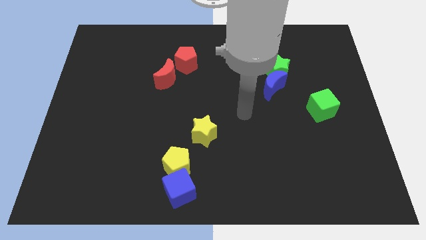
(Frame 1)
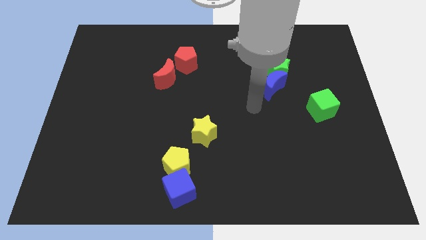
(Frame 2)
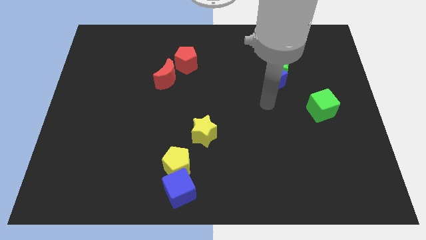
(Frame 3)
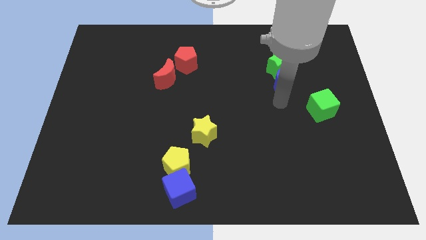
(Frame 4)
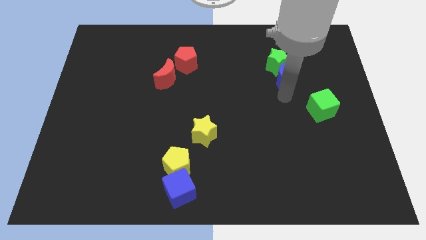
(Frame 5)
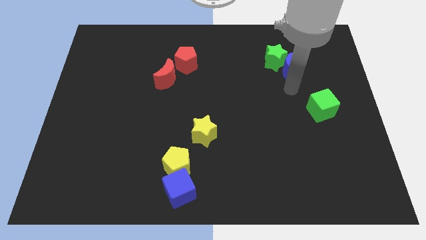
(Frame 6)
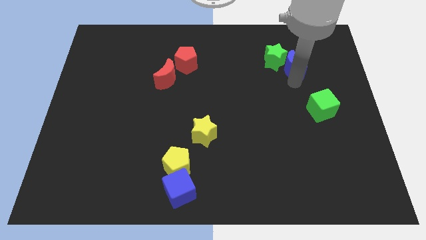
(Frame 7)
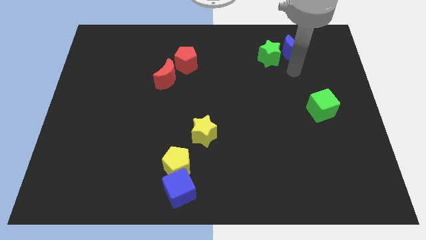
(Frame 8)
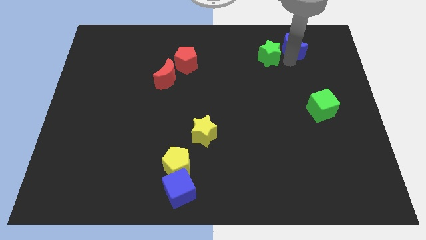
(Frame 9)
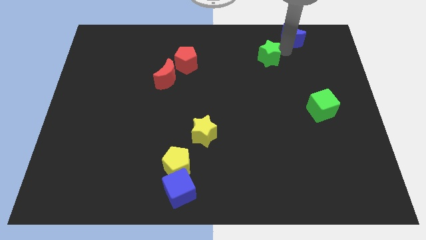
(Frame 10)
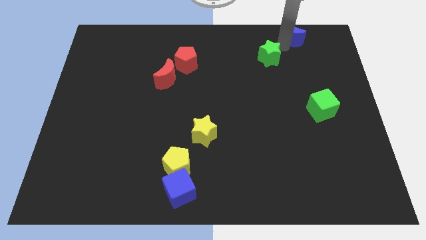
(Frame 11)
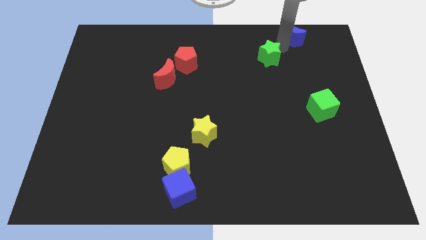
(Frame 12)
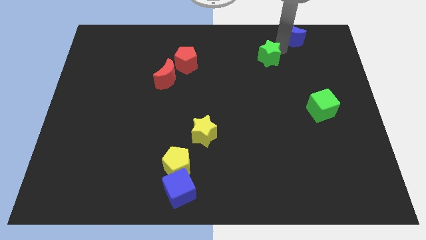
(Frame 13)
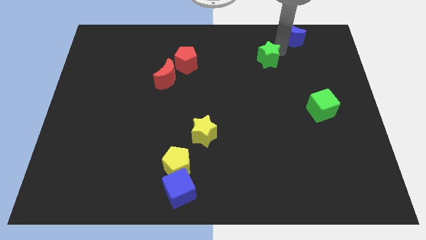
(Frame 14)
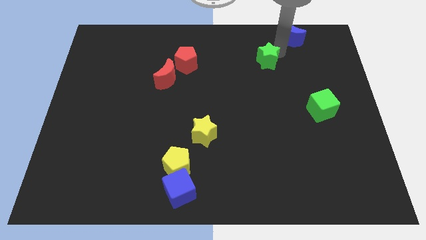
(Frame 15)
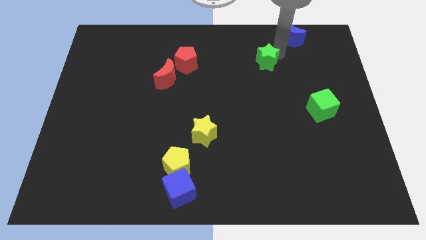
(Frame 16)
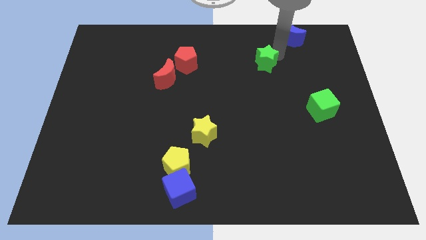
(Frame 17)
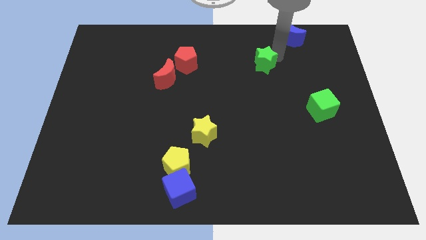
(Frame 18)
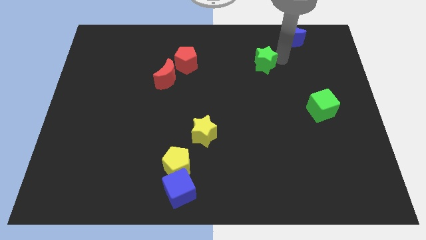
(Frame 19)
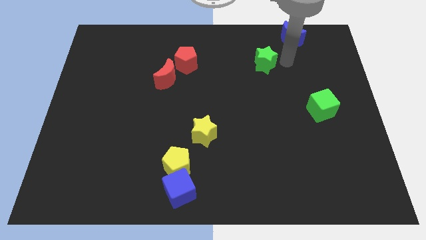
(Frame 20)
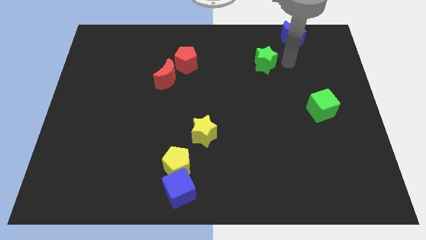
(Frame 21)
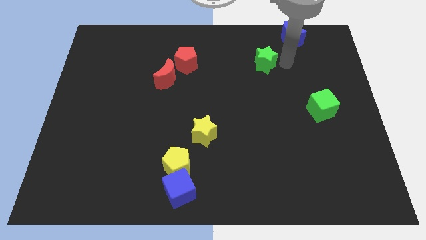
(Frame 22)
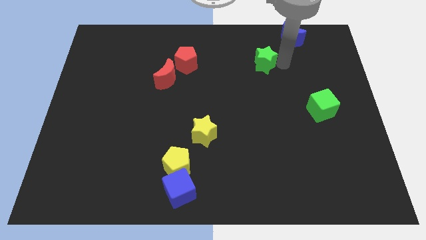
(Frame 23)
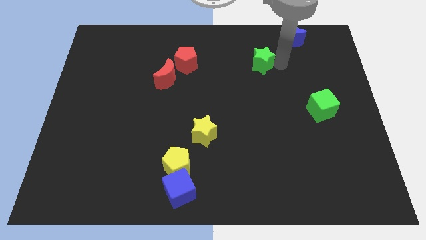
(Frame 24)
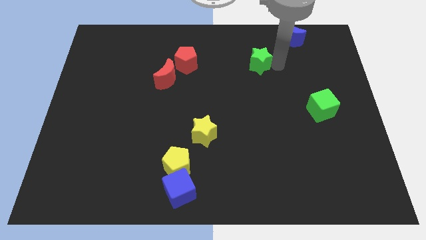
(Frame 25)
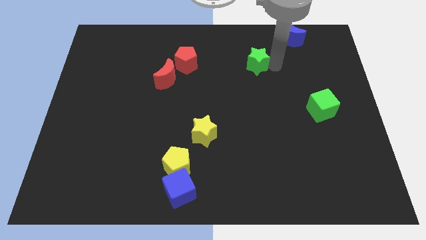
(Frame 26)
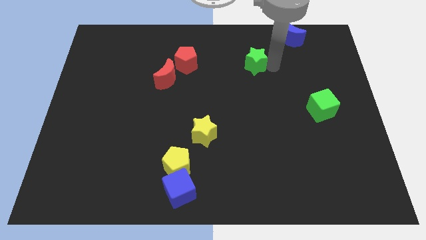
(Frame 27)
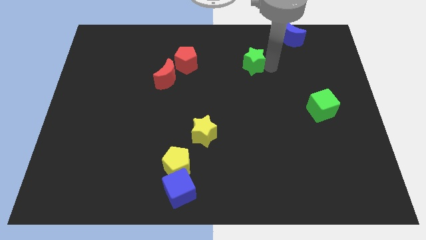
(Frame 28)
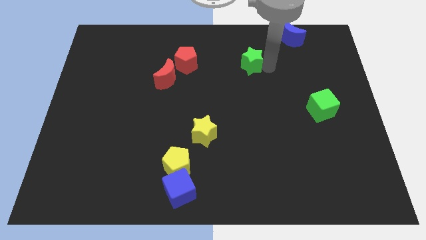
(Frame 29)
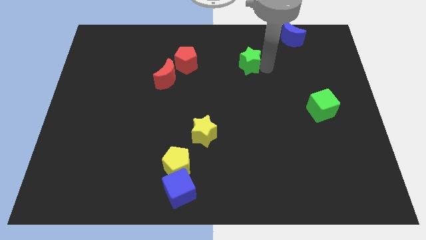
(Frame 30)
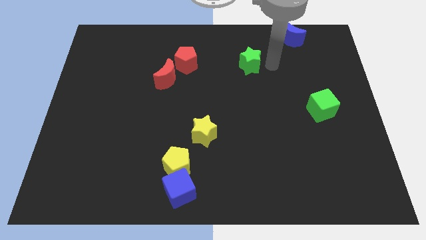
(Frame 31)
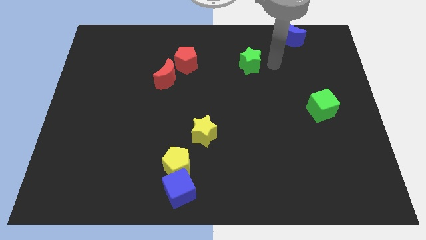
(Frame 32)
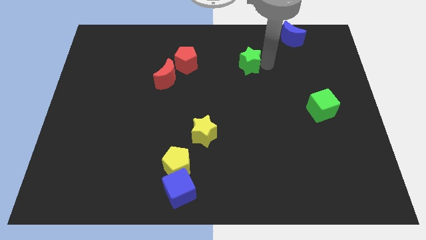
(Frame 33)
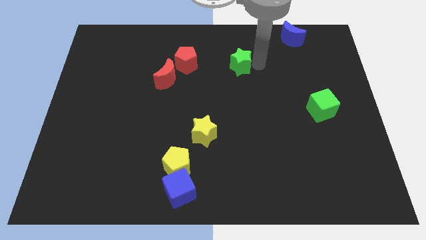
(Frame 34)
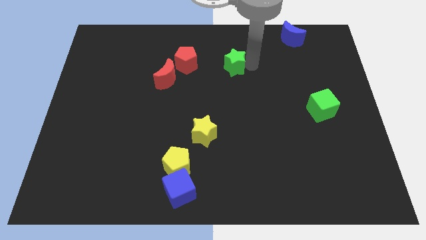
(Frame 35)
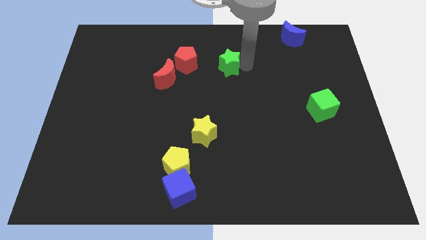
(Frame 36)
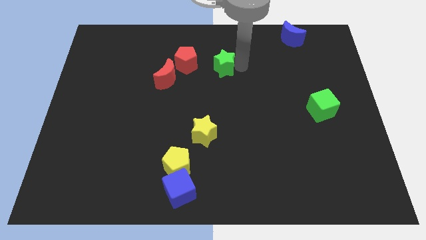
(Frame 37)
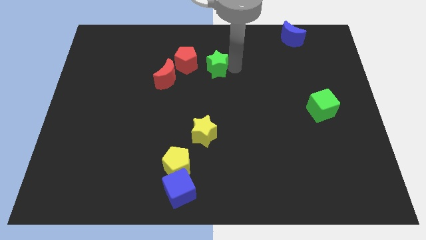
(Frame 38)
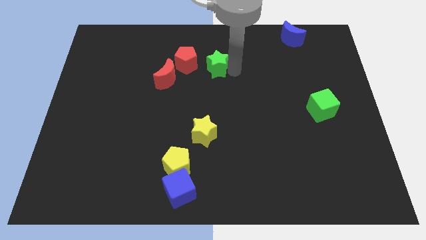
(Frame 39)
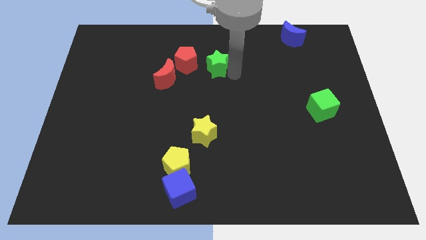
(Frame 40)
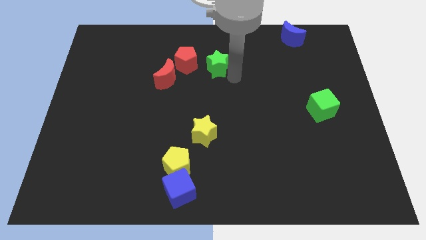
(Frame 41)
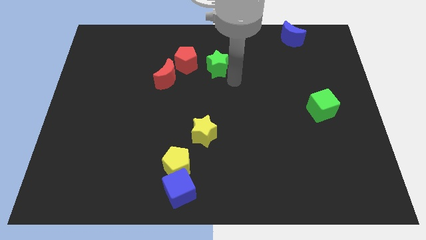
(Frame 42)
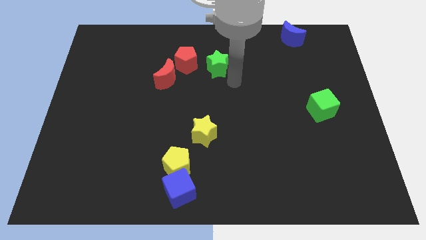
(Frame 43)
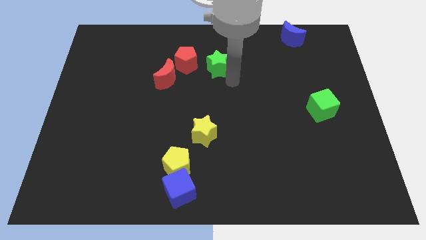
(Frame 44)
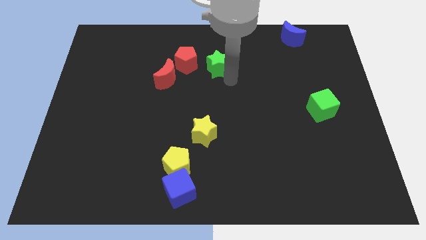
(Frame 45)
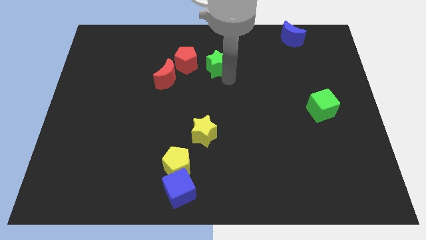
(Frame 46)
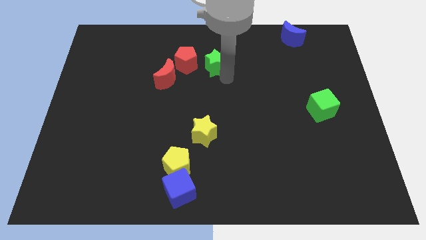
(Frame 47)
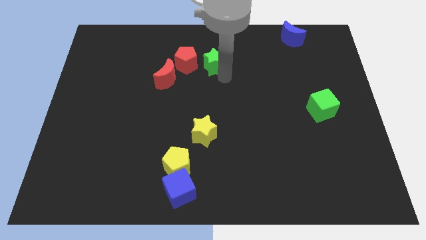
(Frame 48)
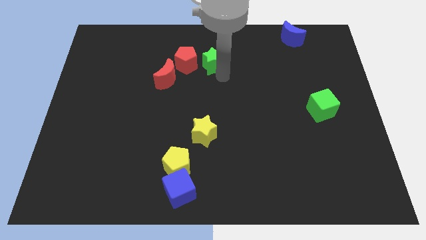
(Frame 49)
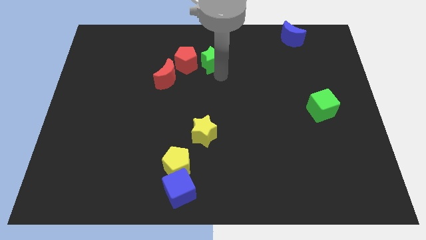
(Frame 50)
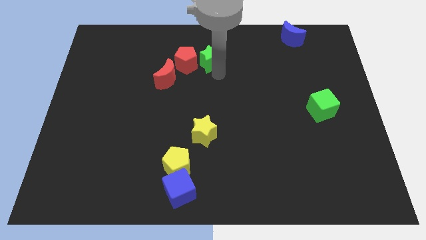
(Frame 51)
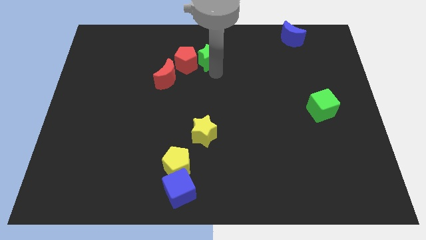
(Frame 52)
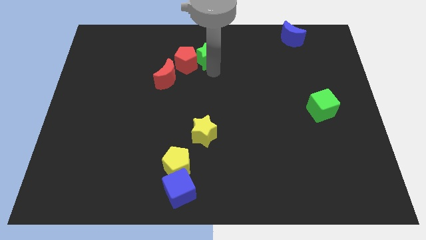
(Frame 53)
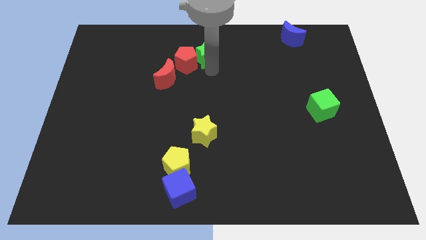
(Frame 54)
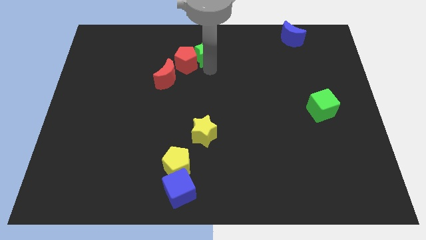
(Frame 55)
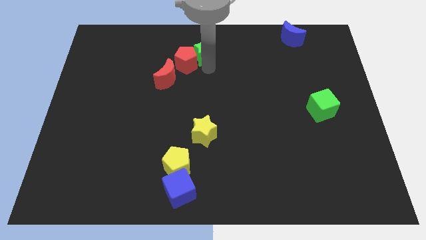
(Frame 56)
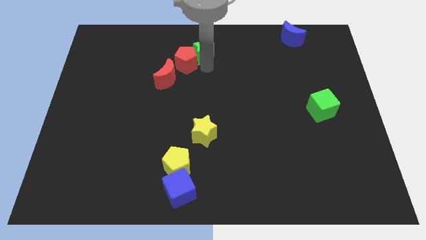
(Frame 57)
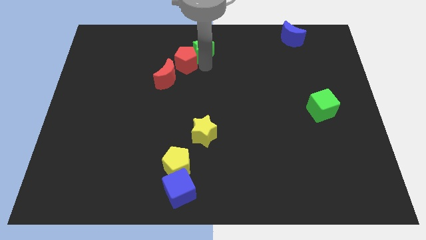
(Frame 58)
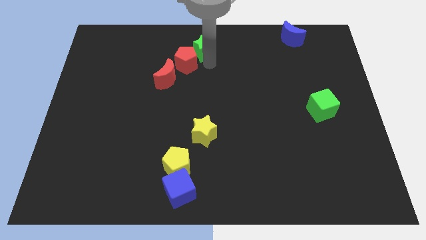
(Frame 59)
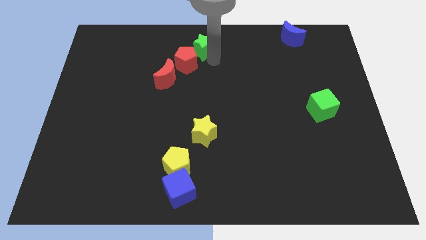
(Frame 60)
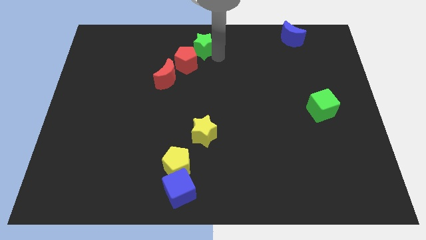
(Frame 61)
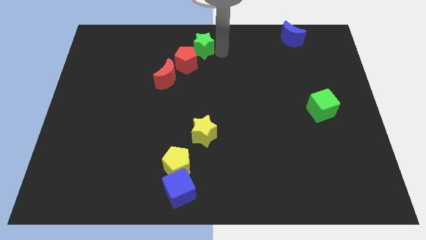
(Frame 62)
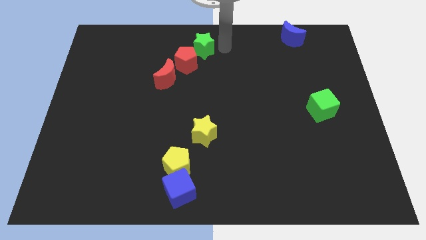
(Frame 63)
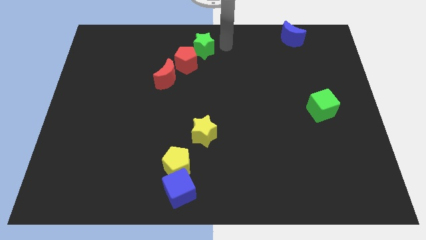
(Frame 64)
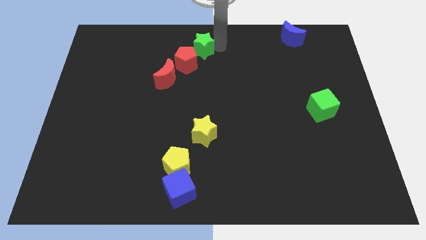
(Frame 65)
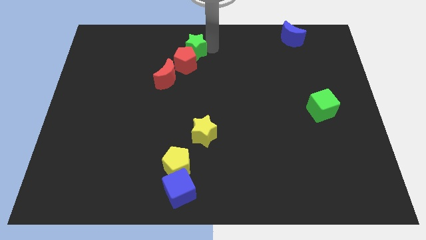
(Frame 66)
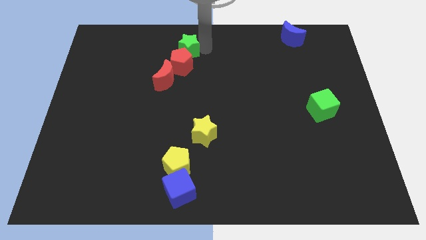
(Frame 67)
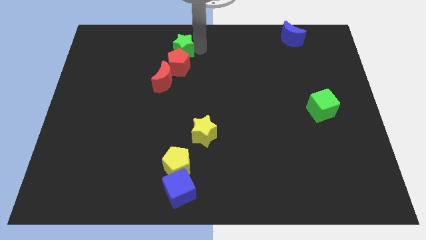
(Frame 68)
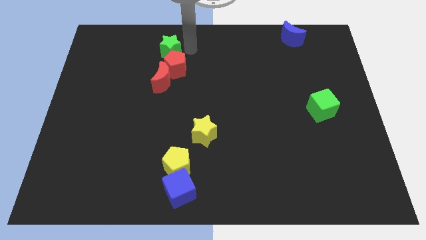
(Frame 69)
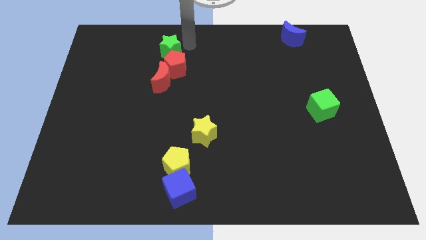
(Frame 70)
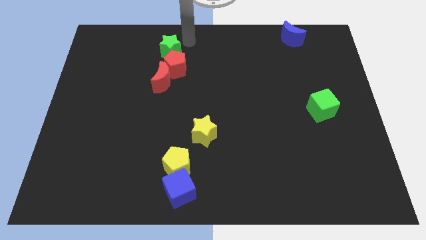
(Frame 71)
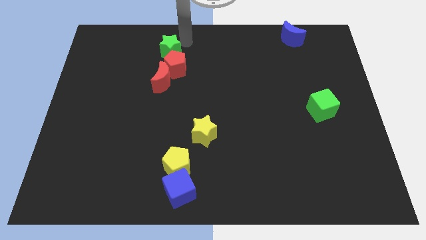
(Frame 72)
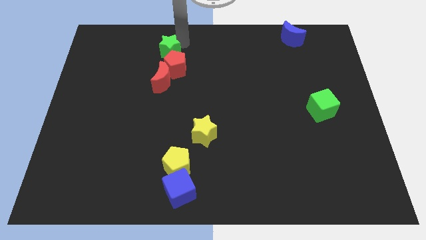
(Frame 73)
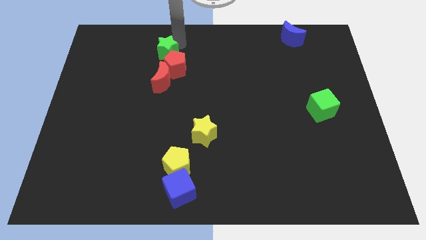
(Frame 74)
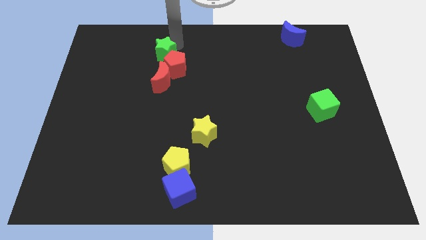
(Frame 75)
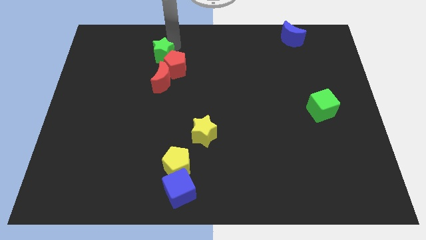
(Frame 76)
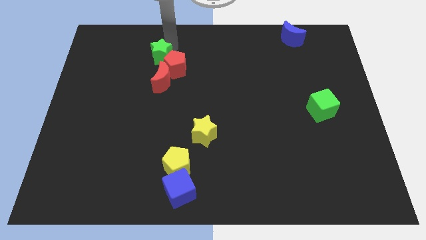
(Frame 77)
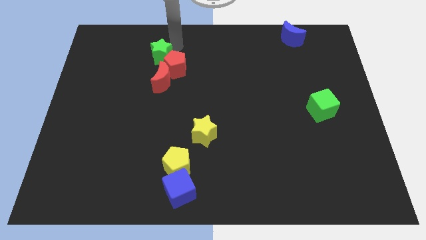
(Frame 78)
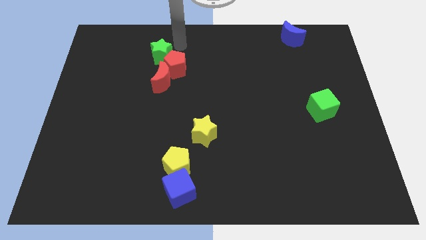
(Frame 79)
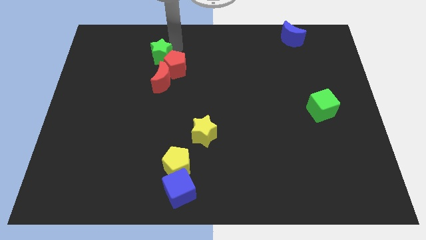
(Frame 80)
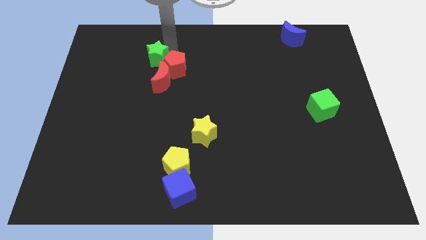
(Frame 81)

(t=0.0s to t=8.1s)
put the green star diagonally up and to the left of the red moon
